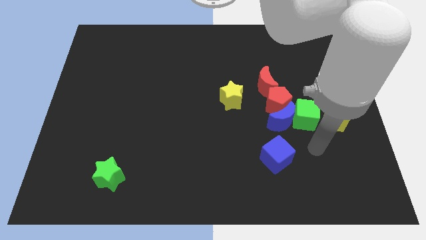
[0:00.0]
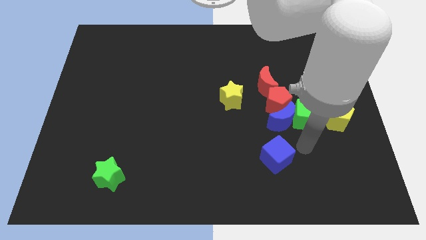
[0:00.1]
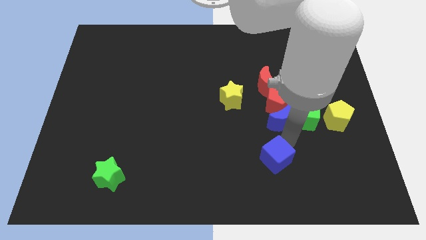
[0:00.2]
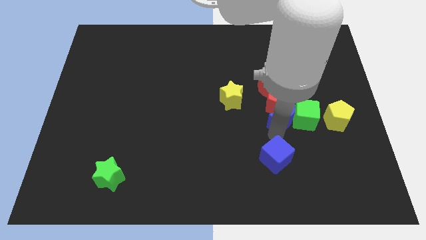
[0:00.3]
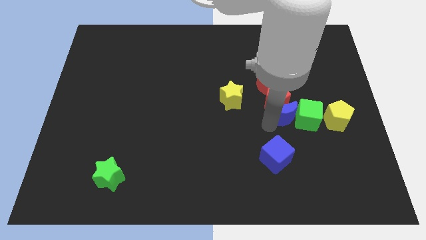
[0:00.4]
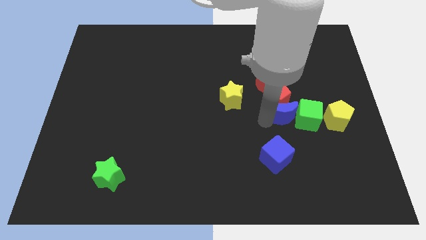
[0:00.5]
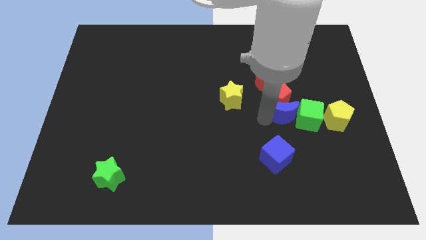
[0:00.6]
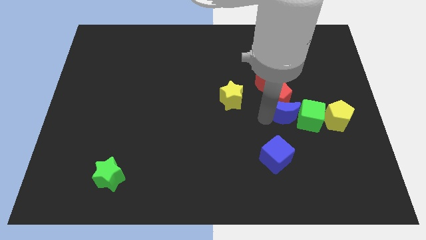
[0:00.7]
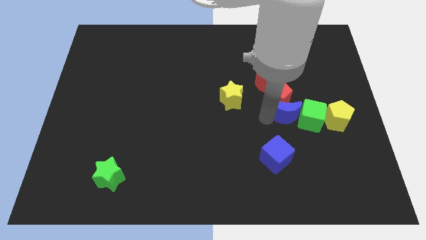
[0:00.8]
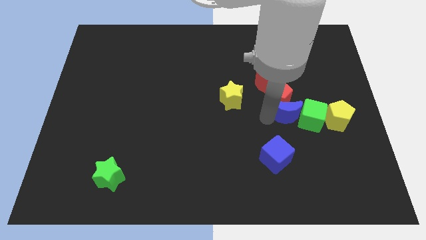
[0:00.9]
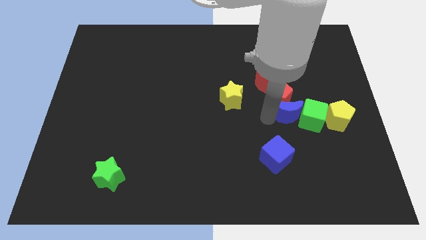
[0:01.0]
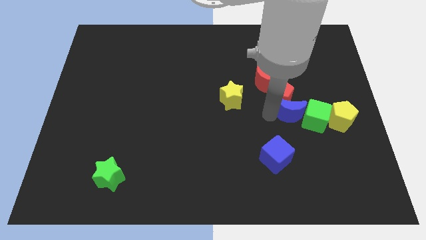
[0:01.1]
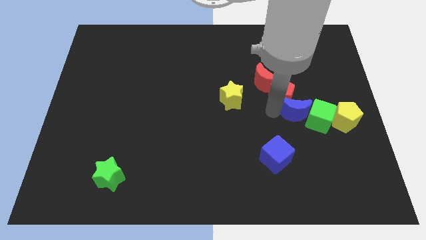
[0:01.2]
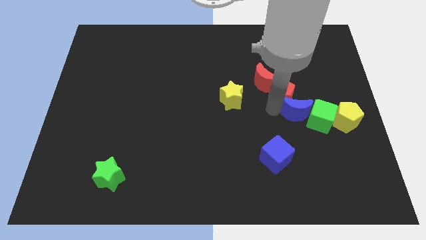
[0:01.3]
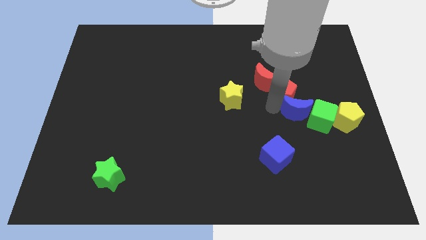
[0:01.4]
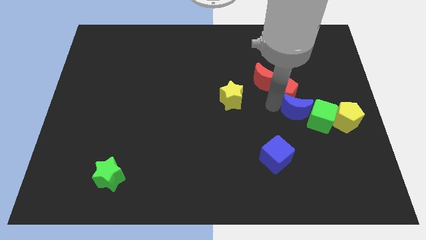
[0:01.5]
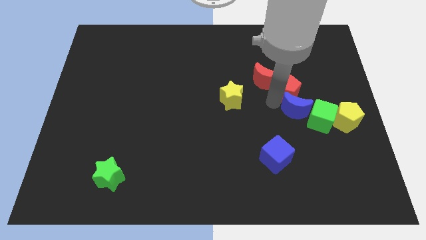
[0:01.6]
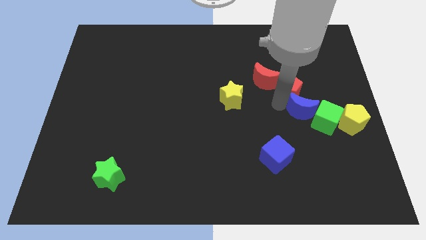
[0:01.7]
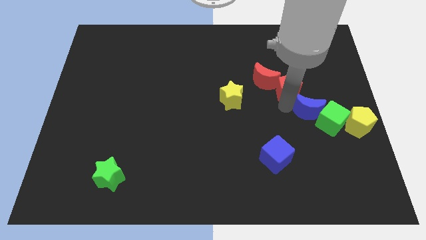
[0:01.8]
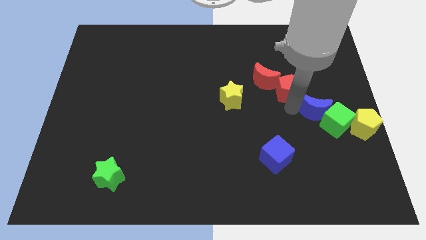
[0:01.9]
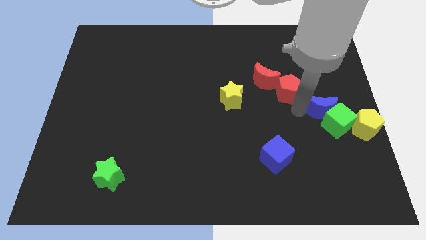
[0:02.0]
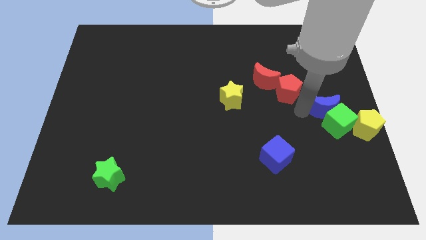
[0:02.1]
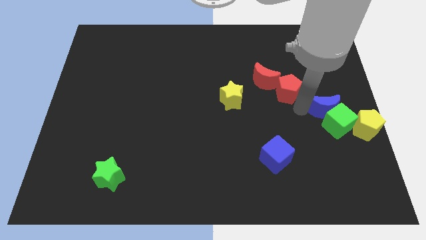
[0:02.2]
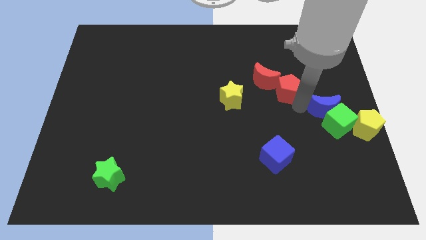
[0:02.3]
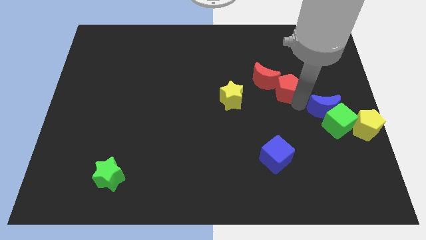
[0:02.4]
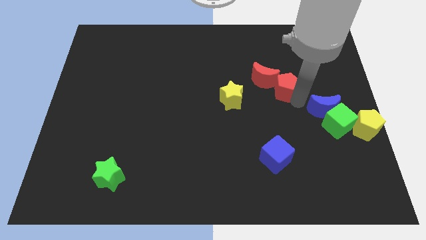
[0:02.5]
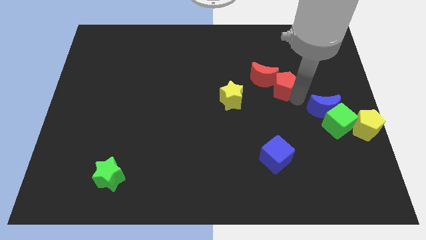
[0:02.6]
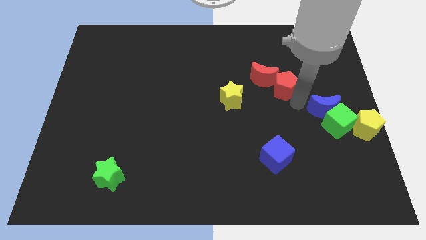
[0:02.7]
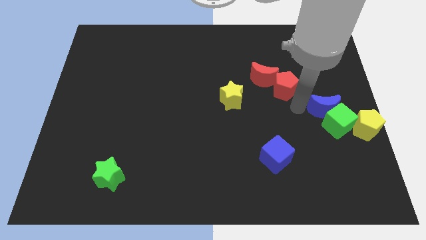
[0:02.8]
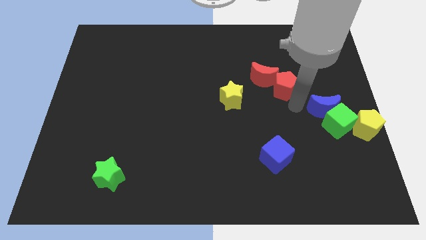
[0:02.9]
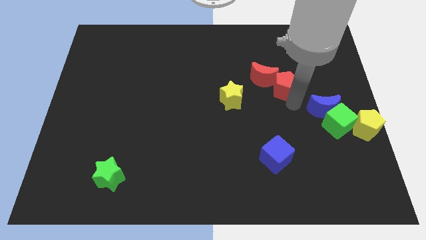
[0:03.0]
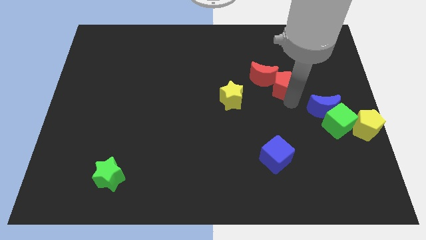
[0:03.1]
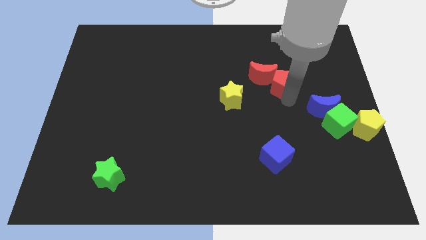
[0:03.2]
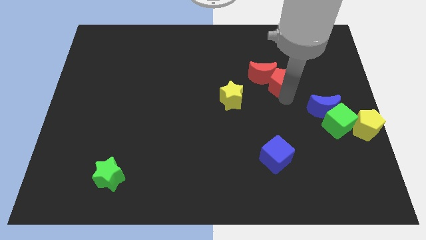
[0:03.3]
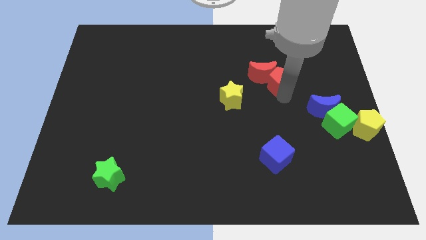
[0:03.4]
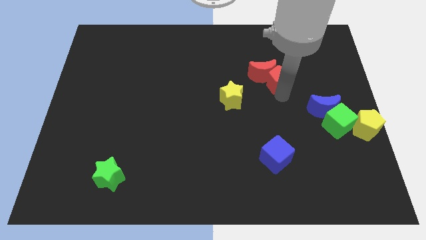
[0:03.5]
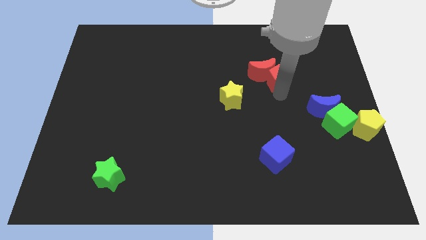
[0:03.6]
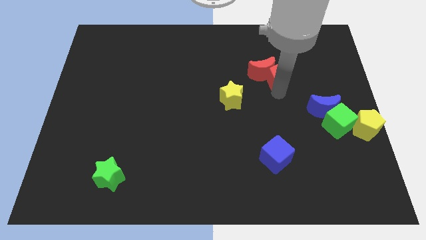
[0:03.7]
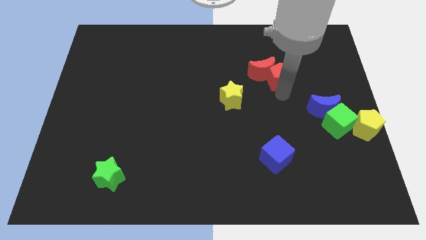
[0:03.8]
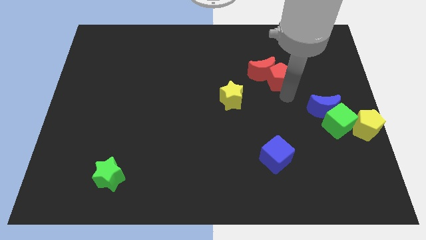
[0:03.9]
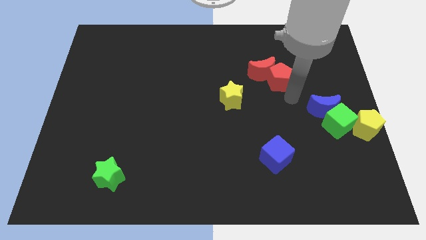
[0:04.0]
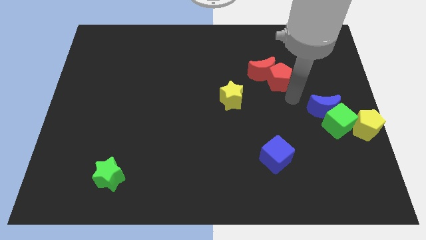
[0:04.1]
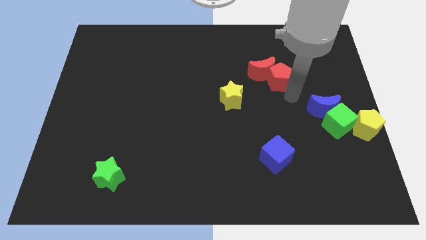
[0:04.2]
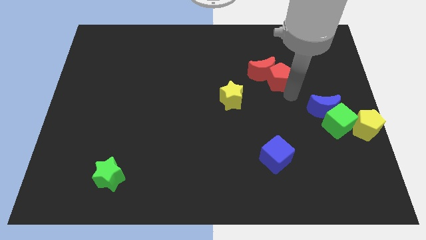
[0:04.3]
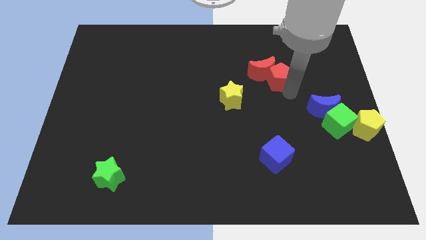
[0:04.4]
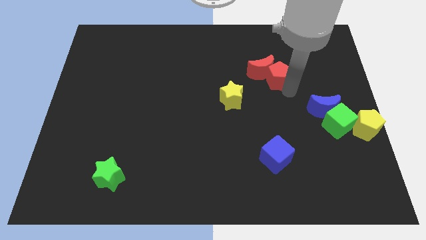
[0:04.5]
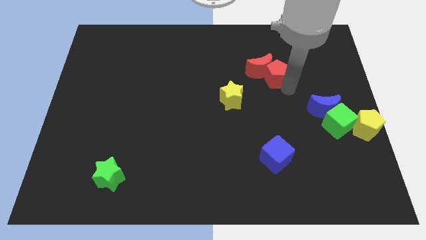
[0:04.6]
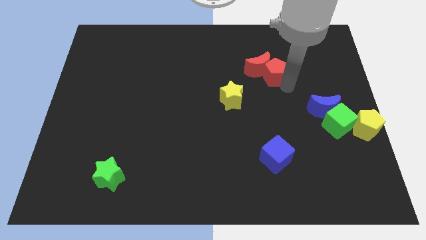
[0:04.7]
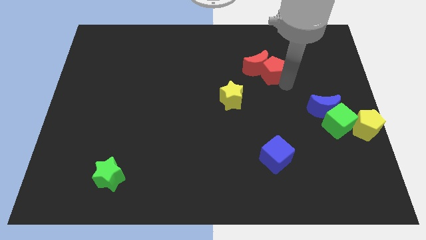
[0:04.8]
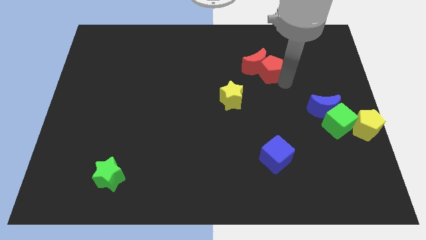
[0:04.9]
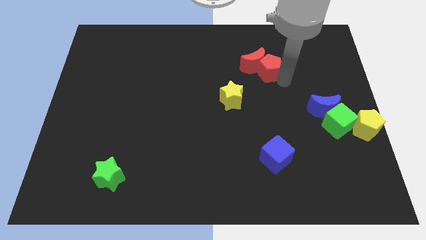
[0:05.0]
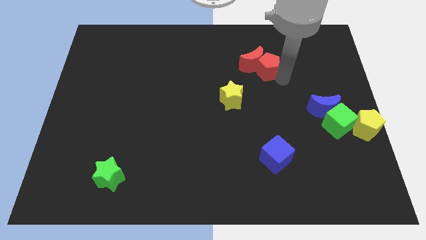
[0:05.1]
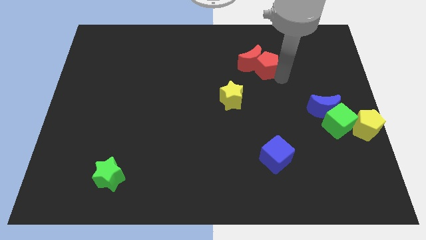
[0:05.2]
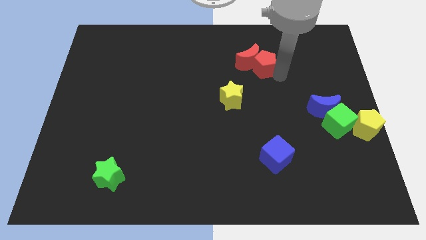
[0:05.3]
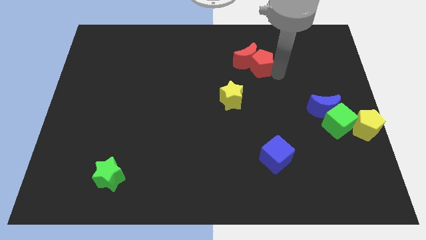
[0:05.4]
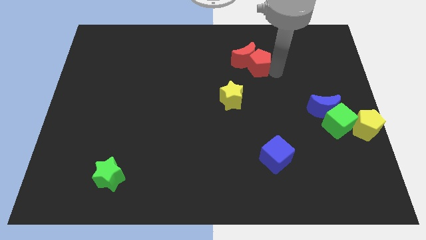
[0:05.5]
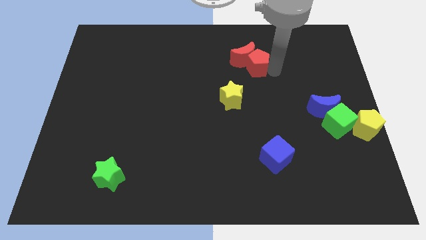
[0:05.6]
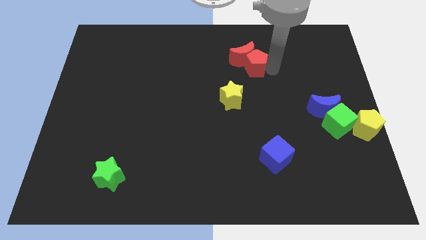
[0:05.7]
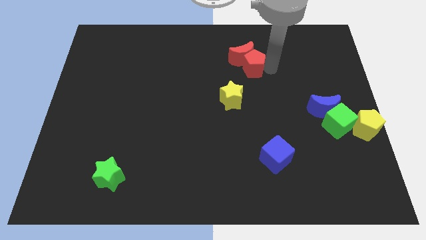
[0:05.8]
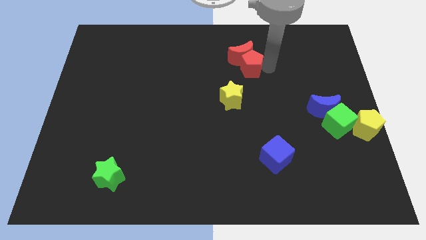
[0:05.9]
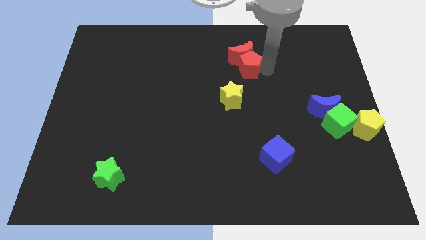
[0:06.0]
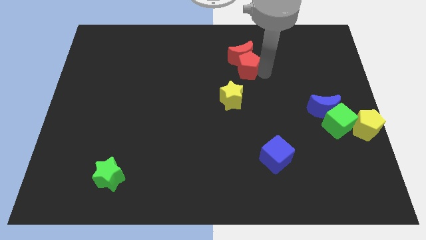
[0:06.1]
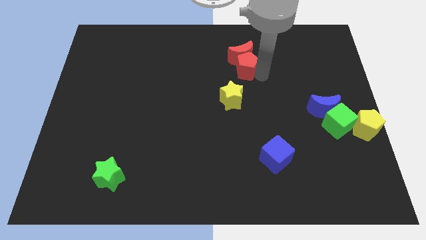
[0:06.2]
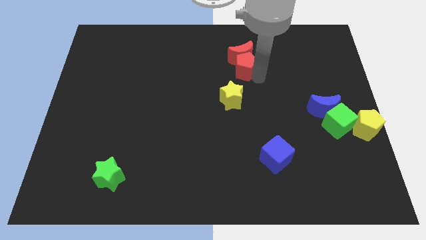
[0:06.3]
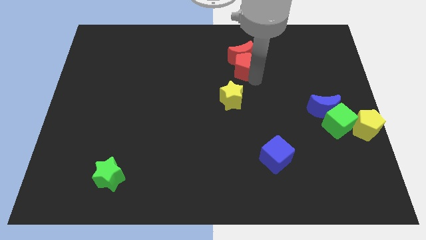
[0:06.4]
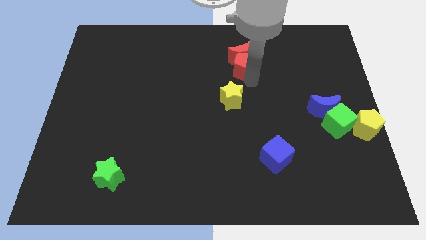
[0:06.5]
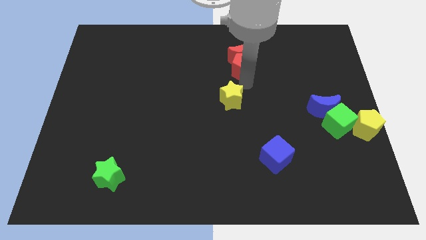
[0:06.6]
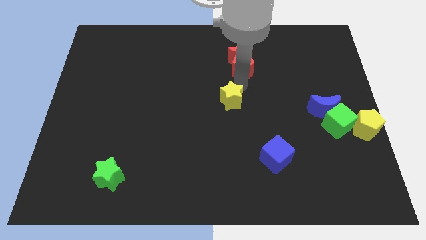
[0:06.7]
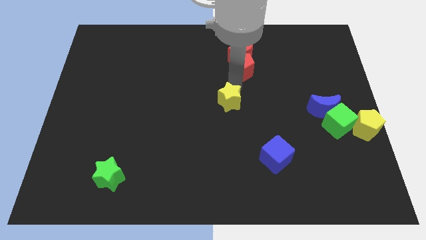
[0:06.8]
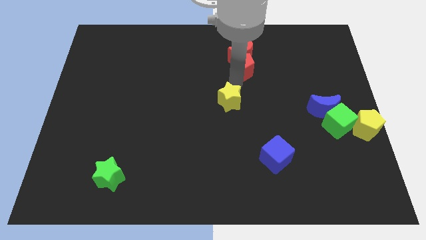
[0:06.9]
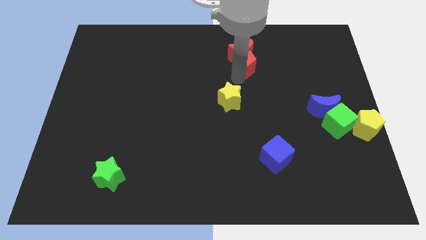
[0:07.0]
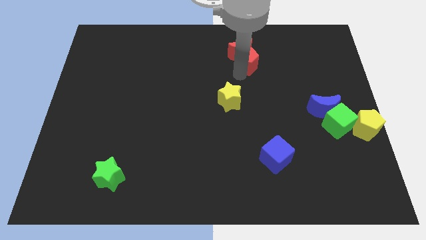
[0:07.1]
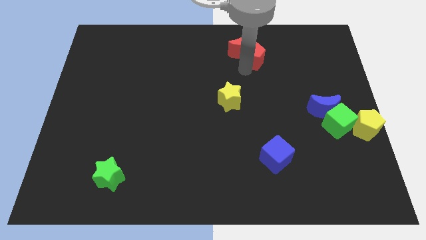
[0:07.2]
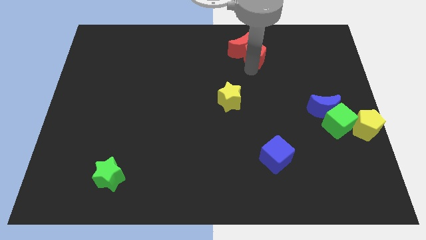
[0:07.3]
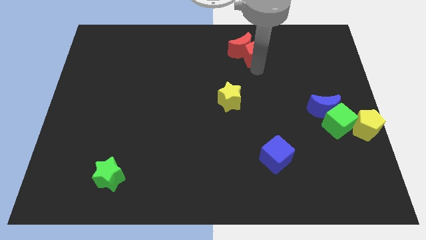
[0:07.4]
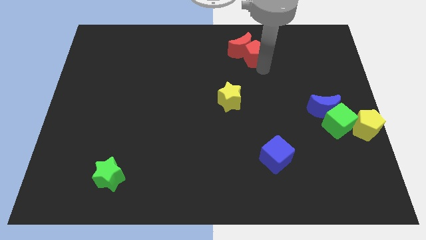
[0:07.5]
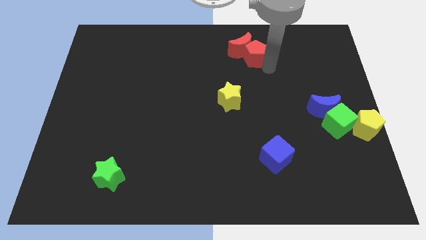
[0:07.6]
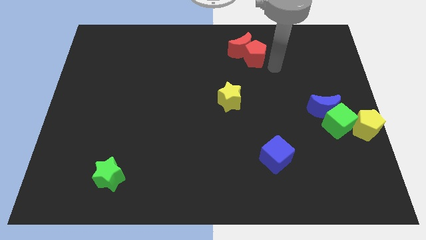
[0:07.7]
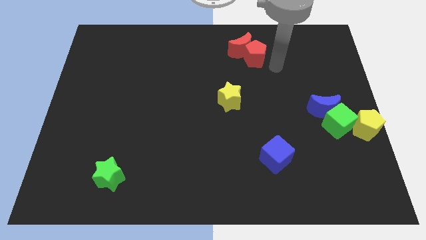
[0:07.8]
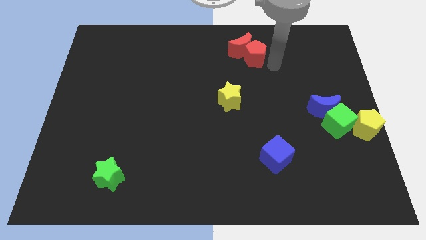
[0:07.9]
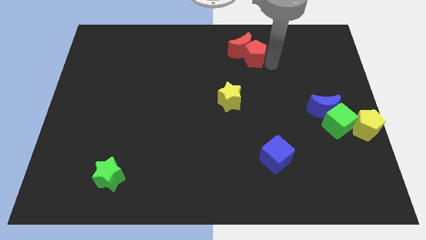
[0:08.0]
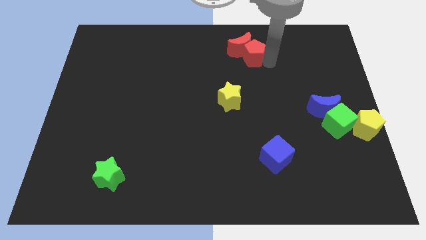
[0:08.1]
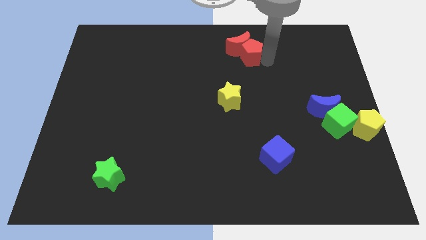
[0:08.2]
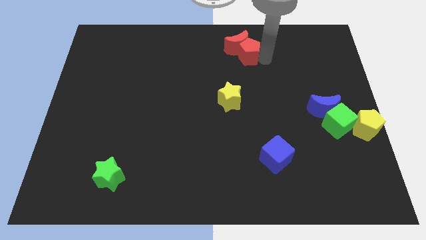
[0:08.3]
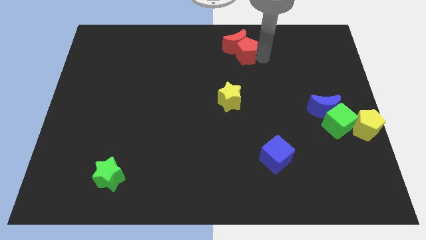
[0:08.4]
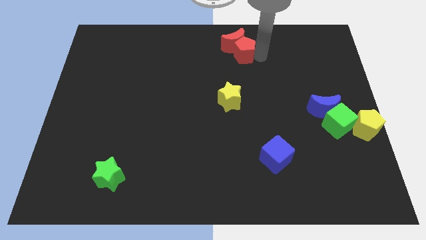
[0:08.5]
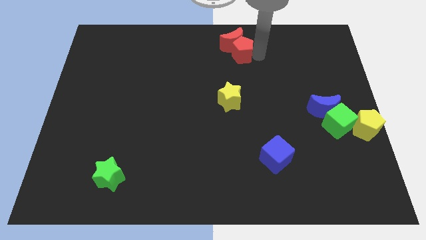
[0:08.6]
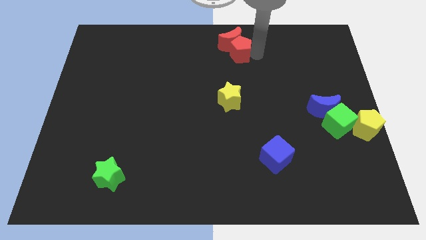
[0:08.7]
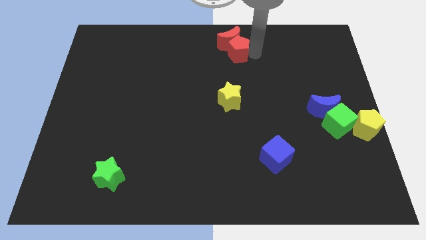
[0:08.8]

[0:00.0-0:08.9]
slide the red pentagon to the top
